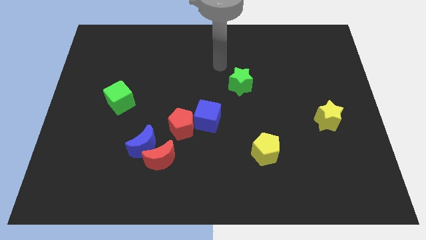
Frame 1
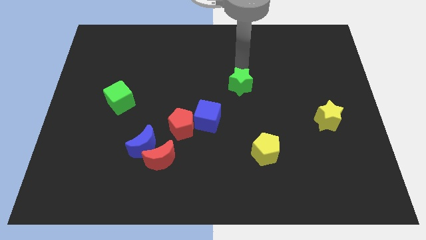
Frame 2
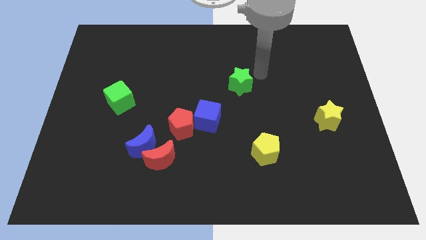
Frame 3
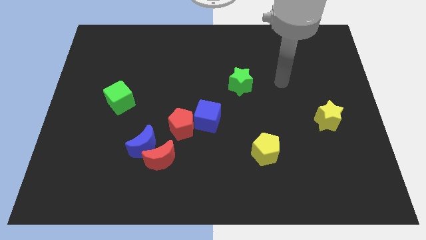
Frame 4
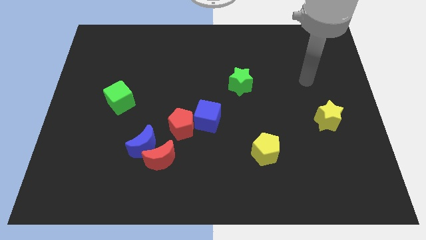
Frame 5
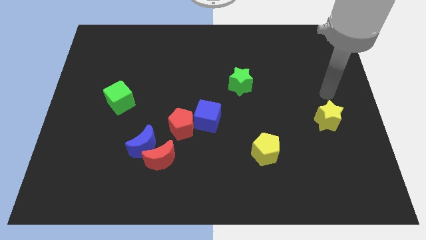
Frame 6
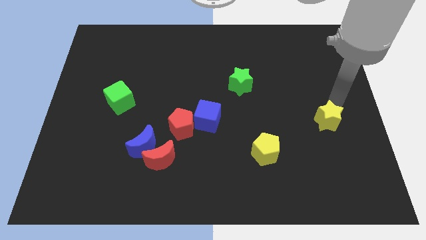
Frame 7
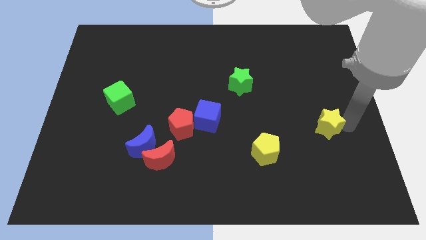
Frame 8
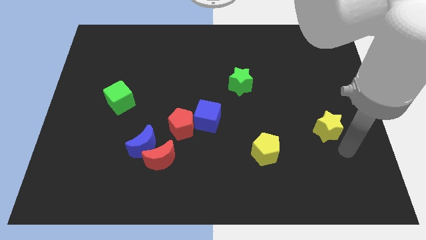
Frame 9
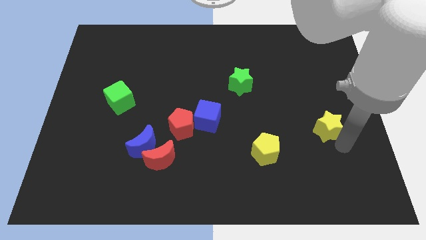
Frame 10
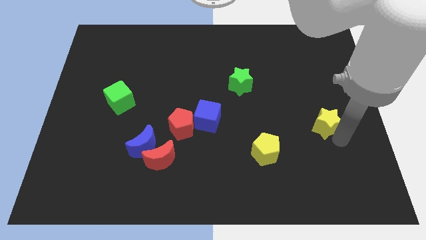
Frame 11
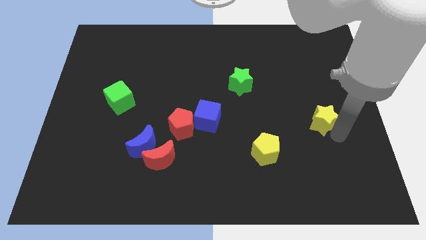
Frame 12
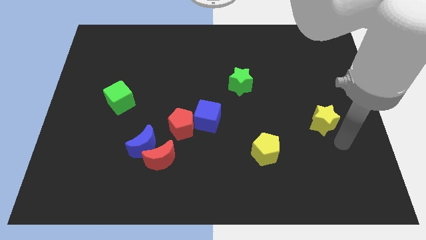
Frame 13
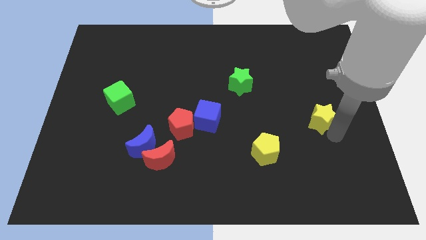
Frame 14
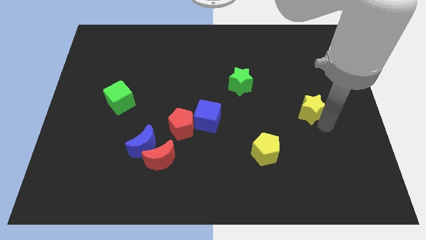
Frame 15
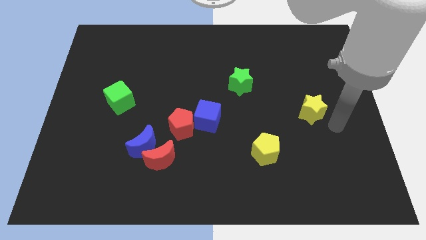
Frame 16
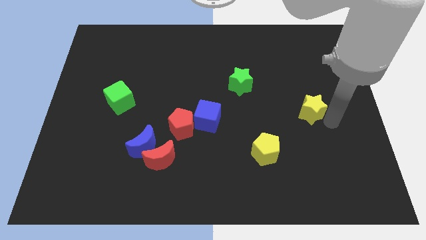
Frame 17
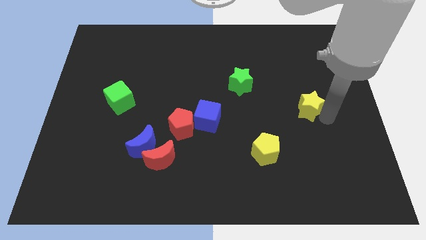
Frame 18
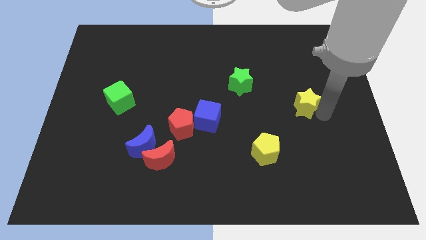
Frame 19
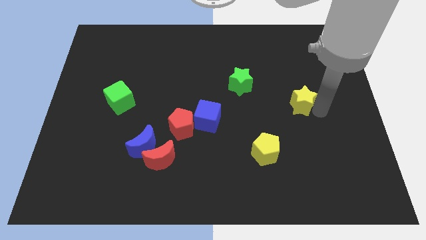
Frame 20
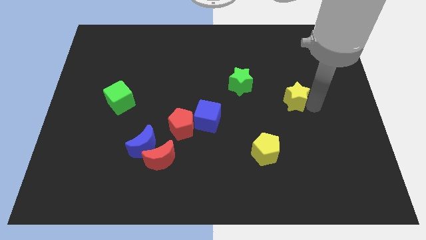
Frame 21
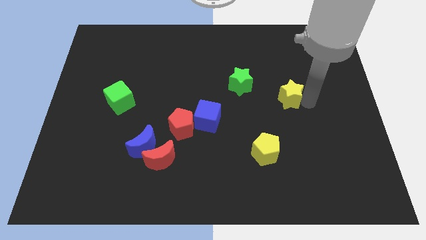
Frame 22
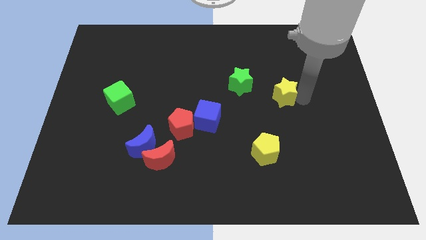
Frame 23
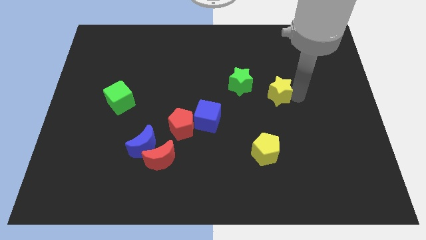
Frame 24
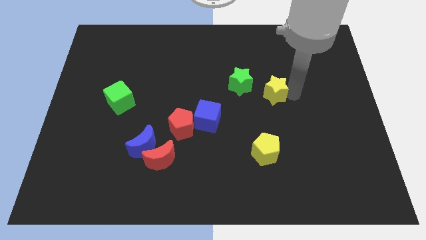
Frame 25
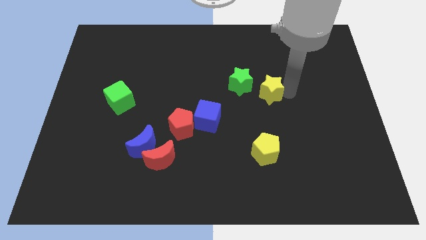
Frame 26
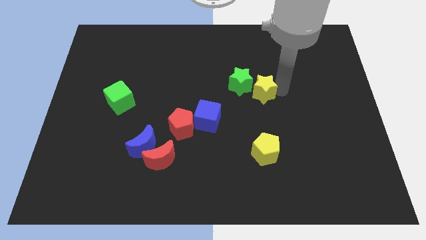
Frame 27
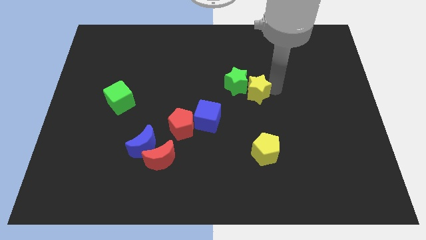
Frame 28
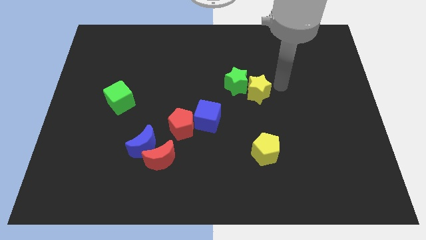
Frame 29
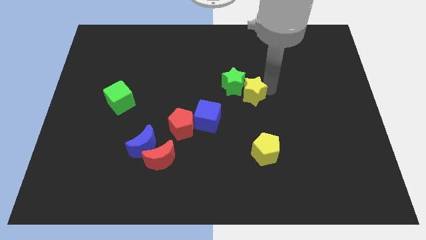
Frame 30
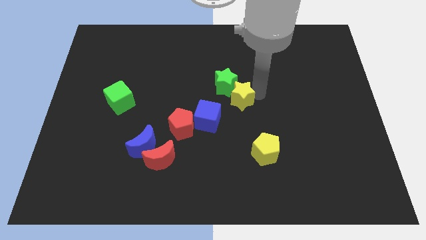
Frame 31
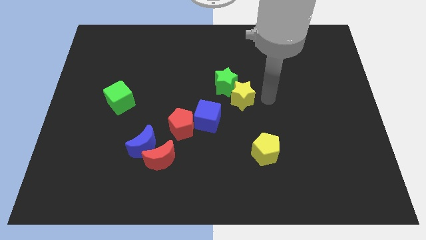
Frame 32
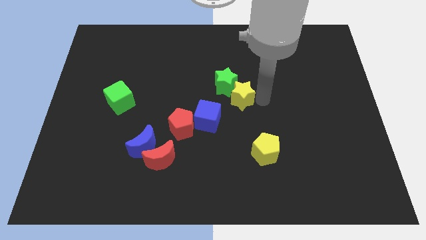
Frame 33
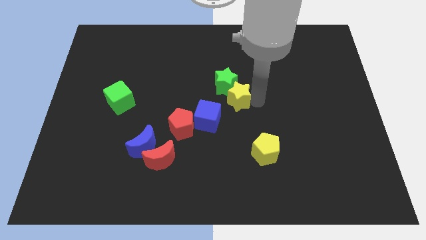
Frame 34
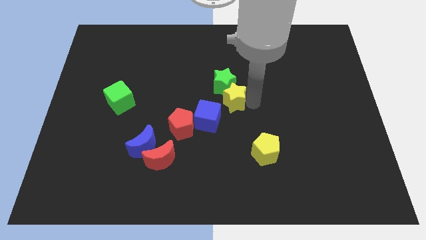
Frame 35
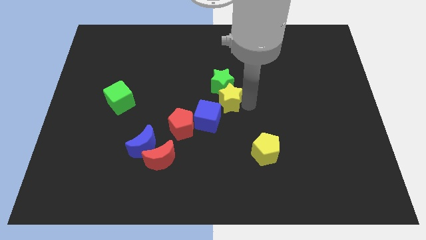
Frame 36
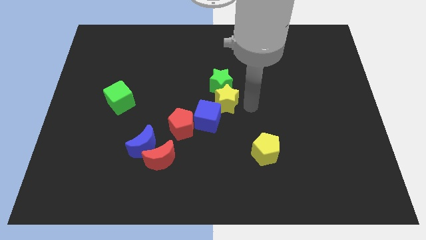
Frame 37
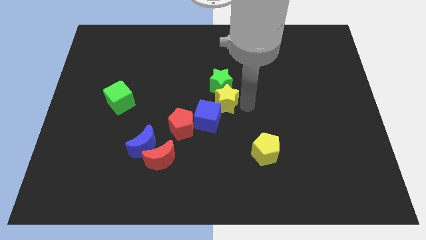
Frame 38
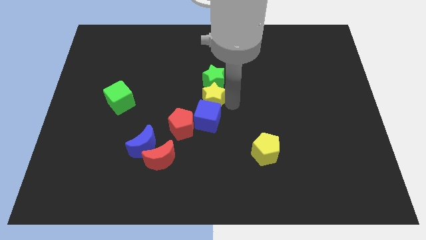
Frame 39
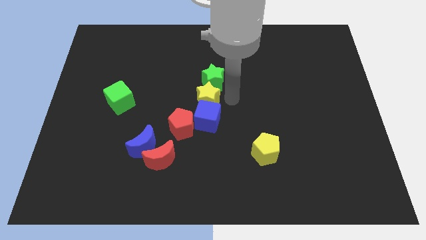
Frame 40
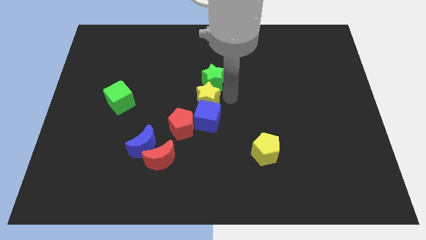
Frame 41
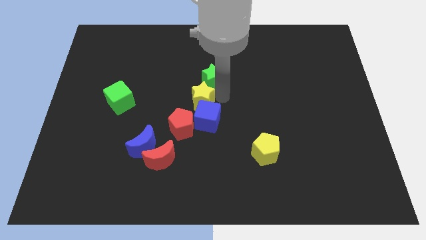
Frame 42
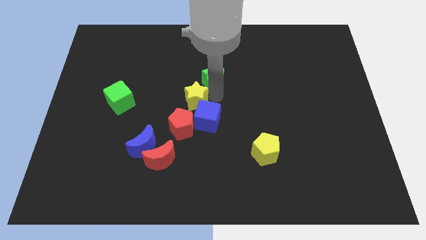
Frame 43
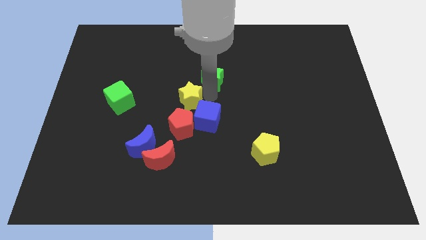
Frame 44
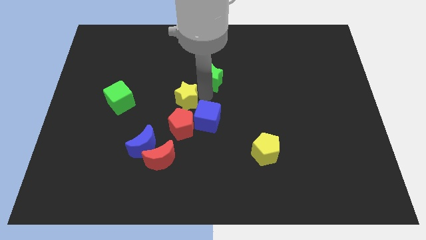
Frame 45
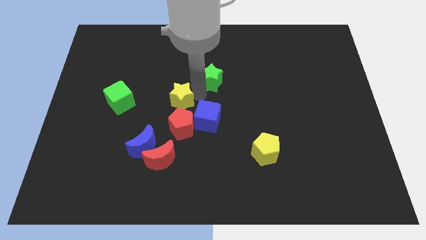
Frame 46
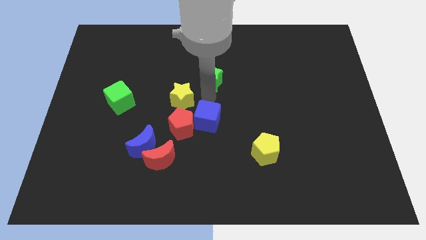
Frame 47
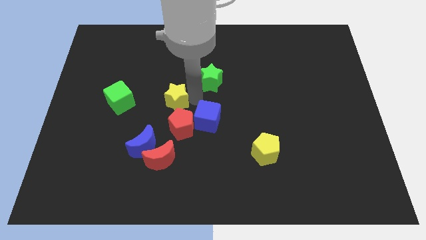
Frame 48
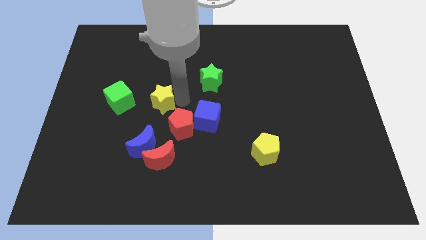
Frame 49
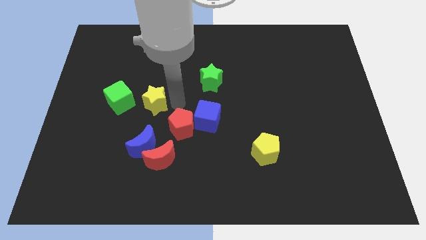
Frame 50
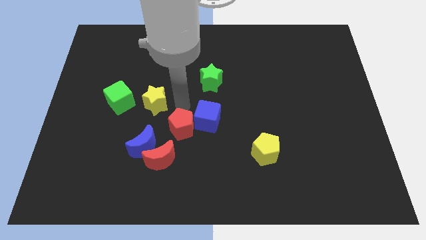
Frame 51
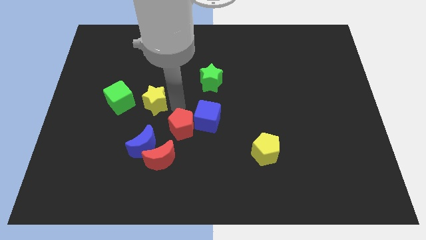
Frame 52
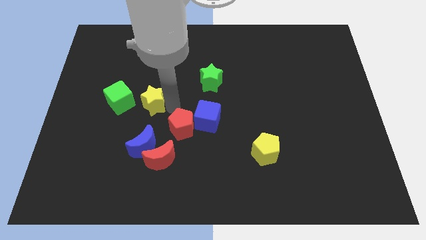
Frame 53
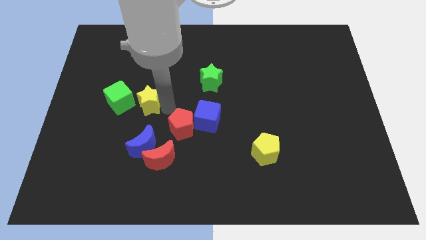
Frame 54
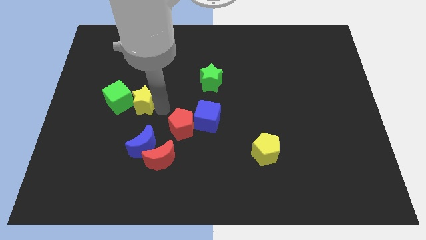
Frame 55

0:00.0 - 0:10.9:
slide the yellow star close to the green cube

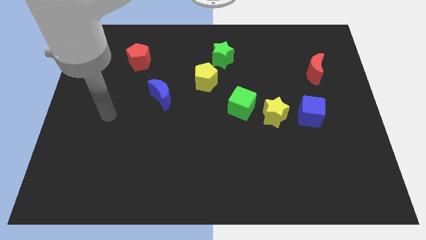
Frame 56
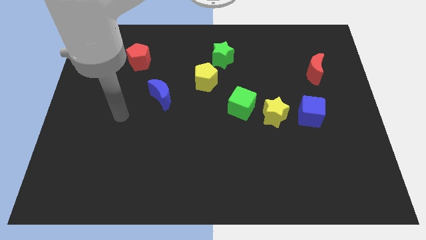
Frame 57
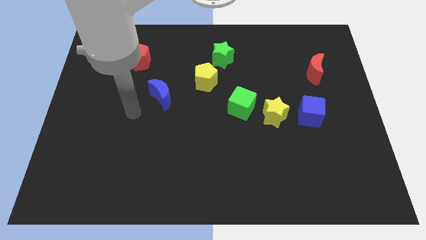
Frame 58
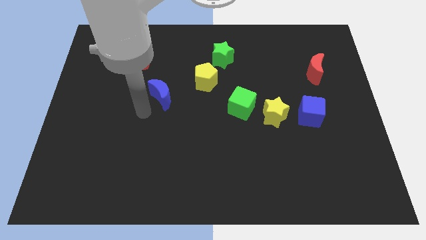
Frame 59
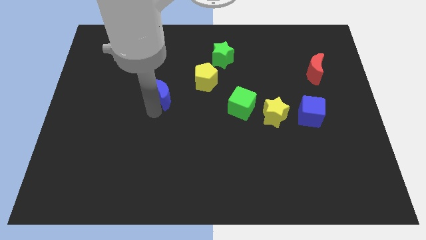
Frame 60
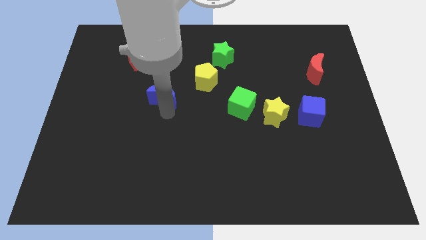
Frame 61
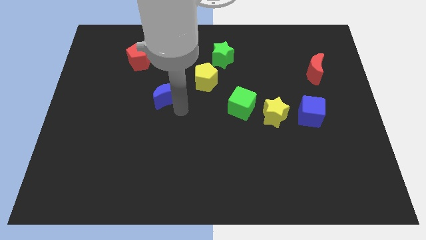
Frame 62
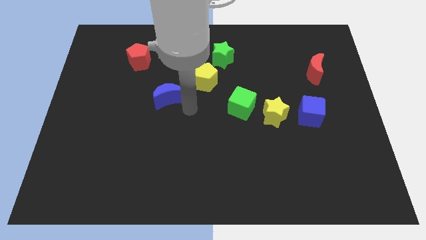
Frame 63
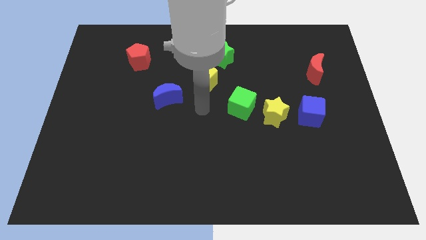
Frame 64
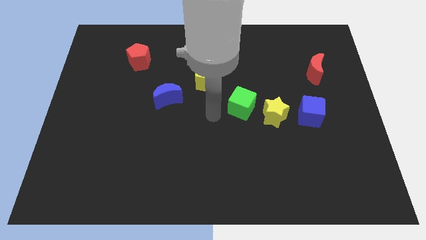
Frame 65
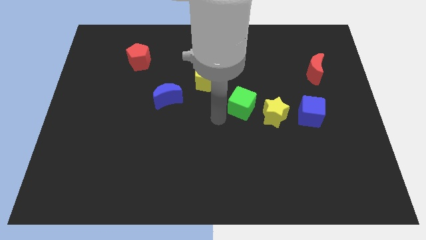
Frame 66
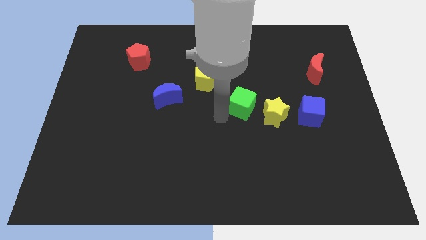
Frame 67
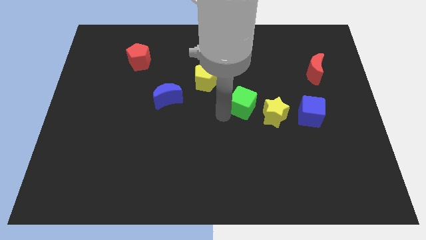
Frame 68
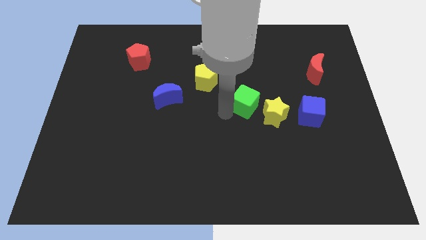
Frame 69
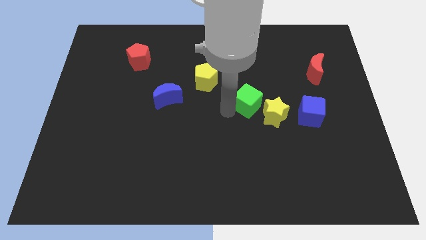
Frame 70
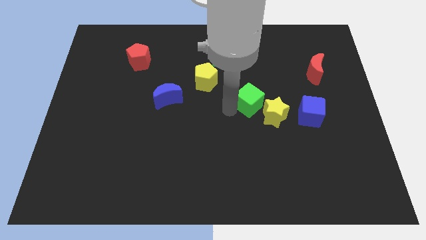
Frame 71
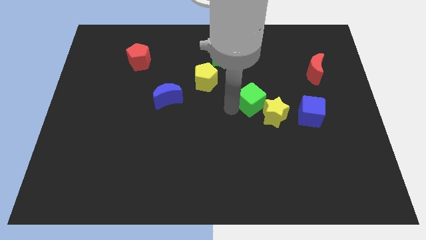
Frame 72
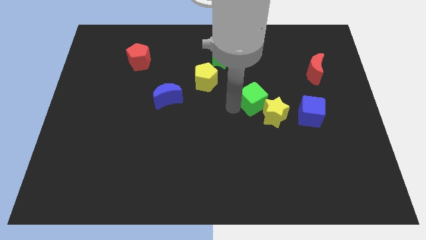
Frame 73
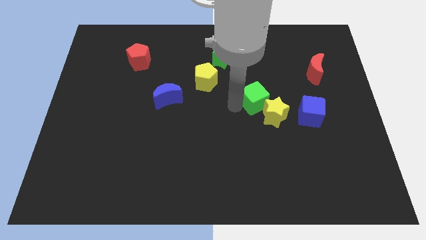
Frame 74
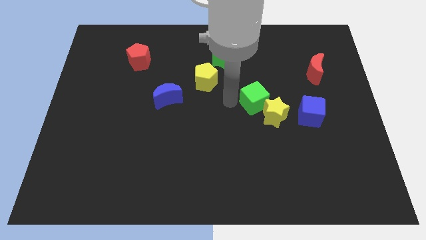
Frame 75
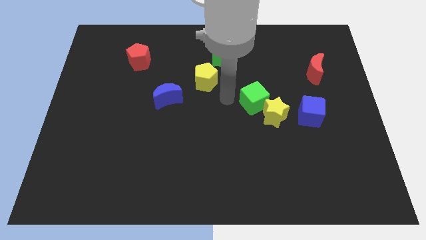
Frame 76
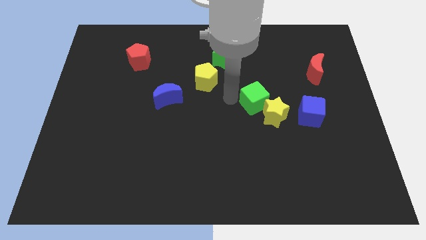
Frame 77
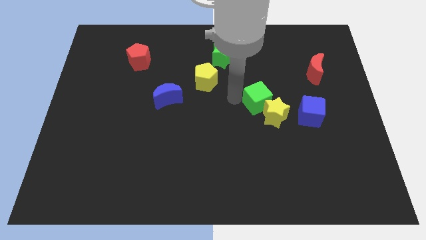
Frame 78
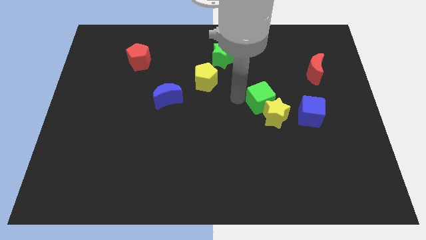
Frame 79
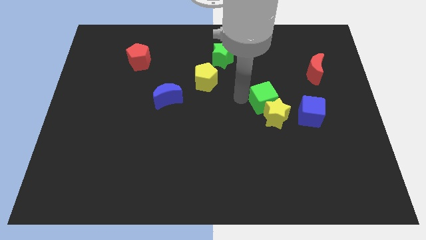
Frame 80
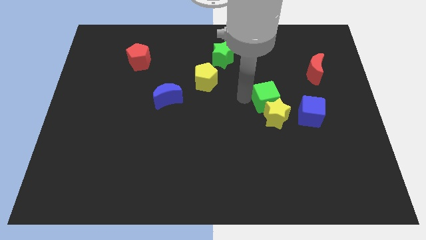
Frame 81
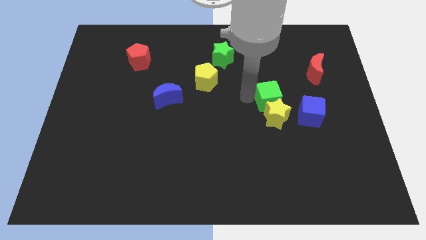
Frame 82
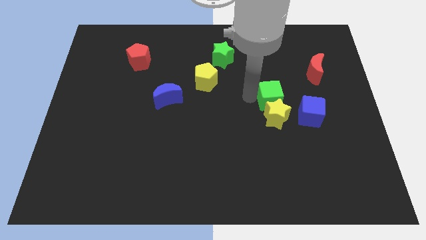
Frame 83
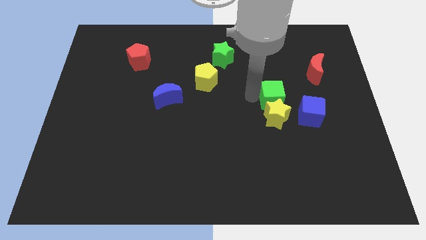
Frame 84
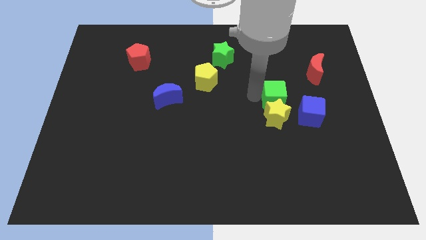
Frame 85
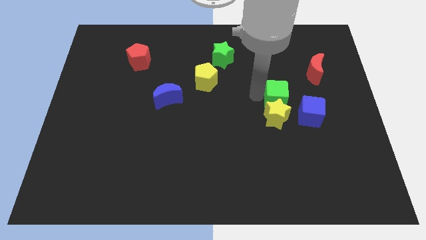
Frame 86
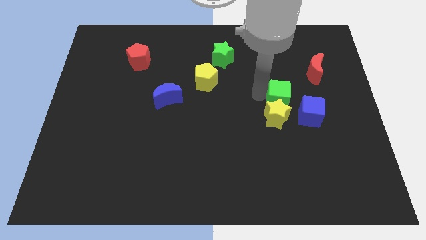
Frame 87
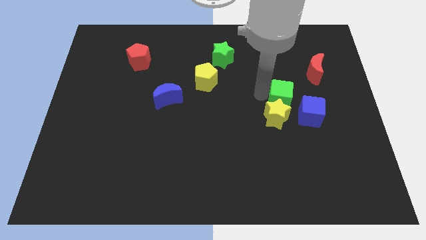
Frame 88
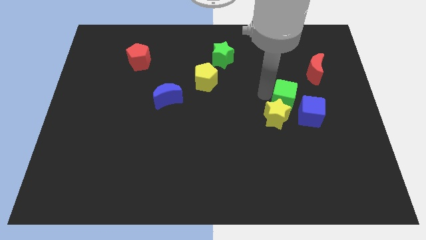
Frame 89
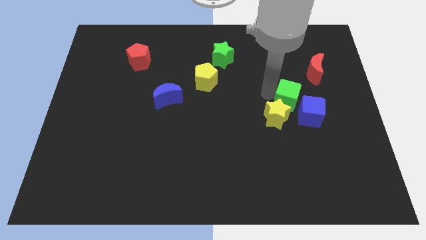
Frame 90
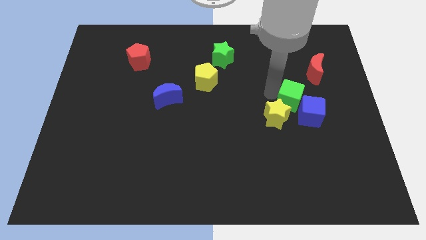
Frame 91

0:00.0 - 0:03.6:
slide the green cube close to the blue cube
